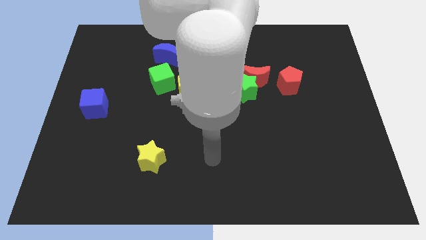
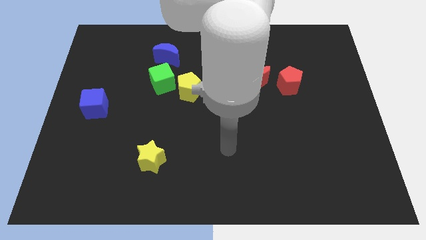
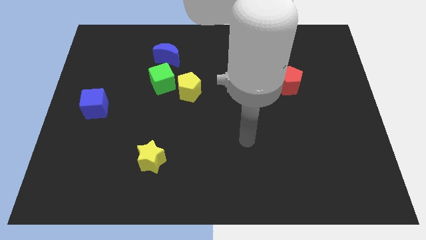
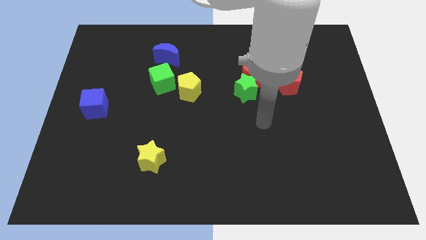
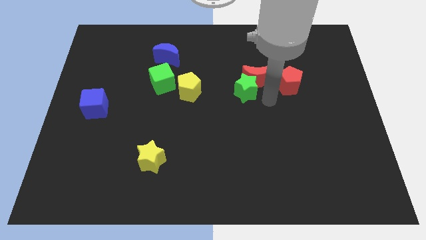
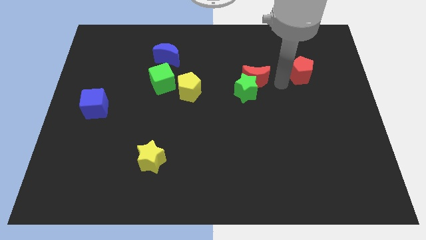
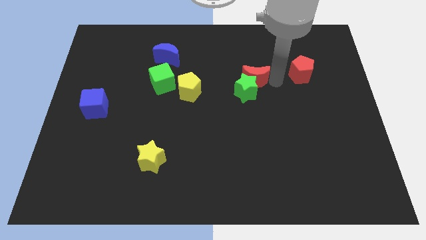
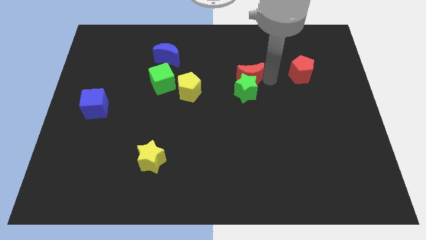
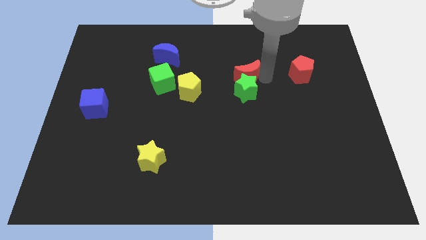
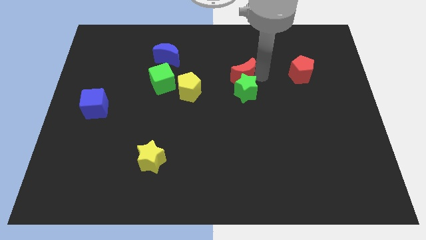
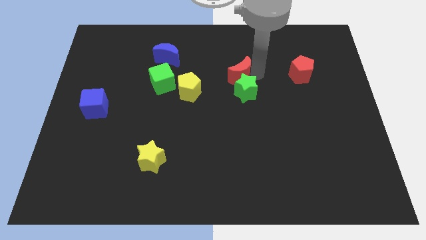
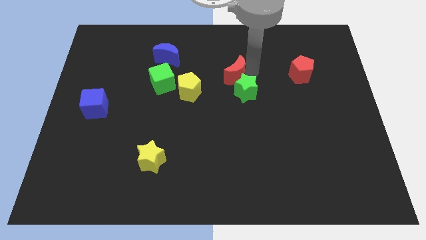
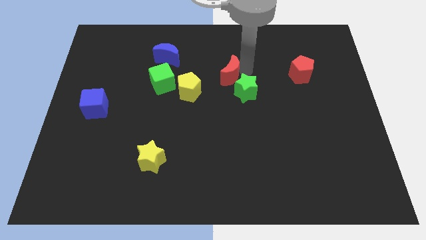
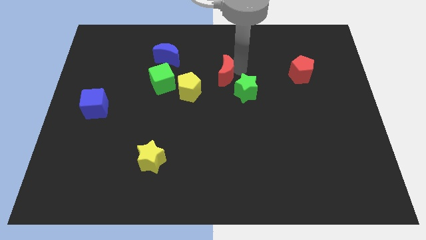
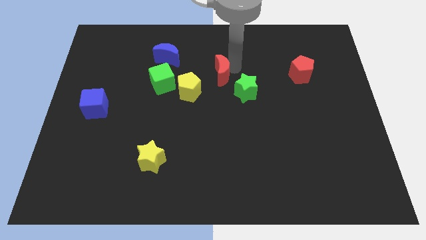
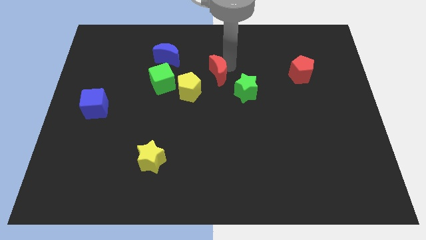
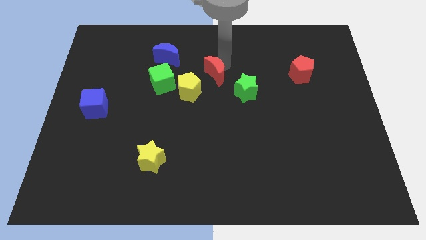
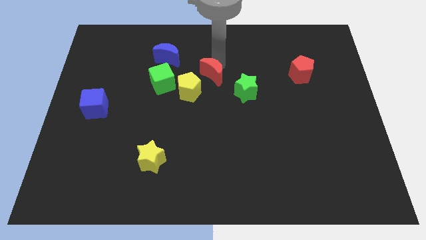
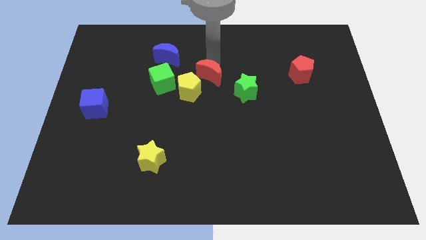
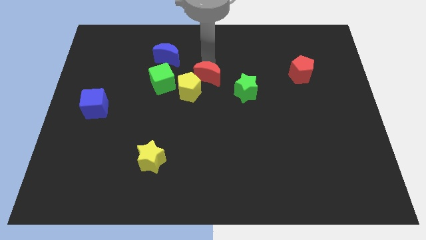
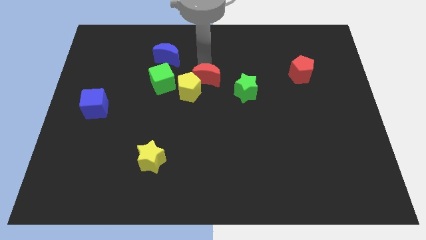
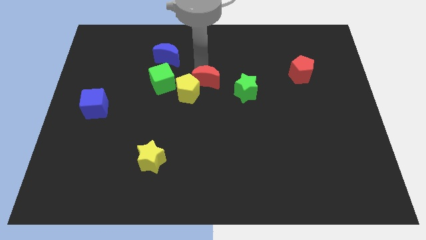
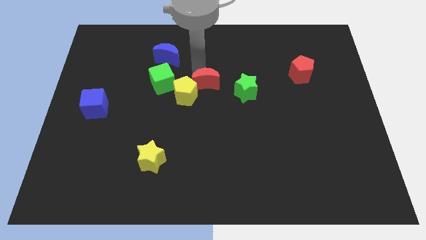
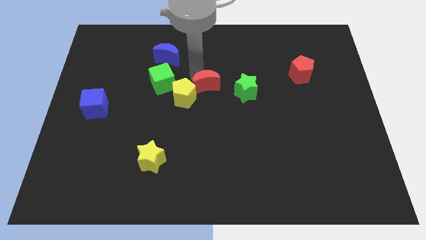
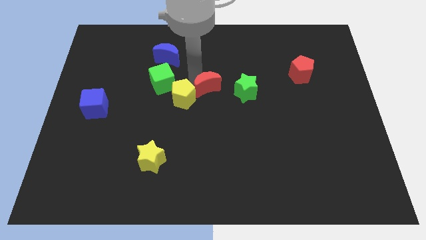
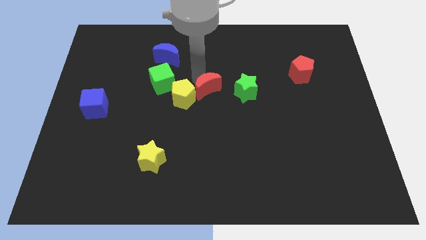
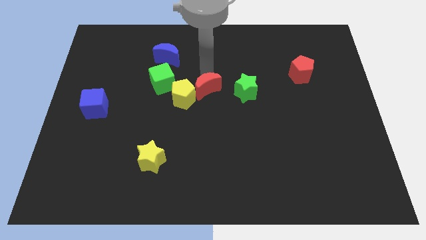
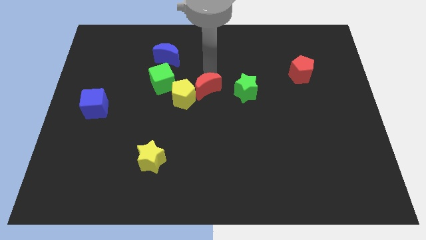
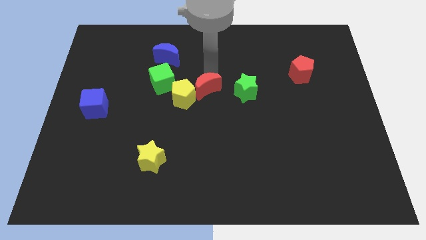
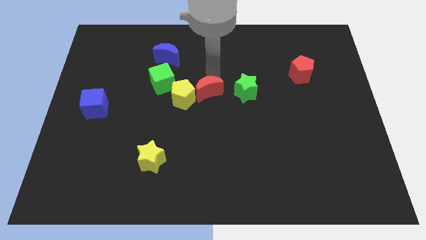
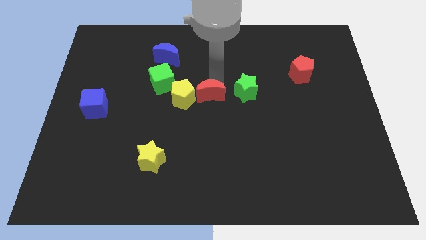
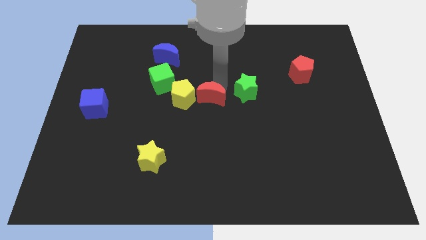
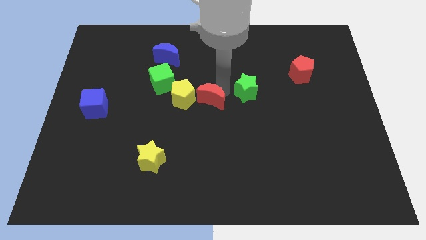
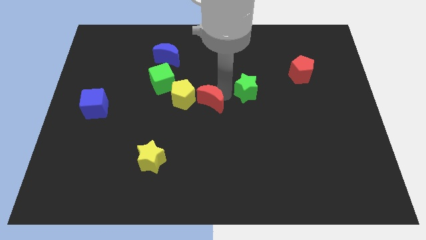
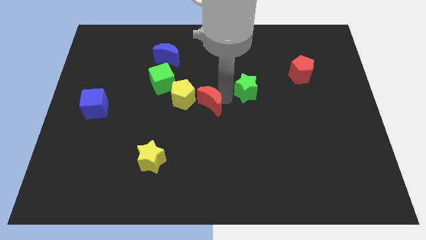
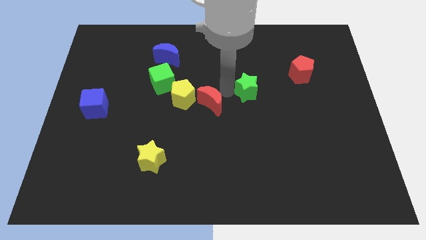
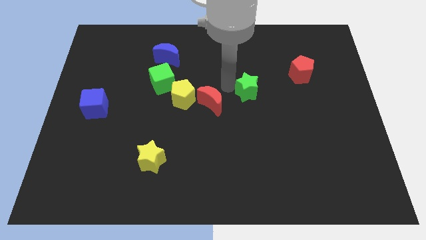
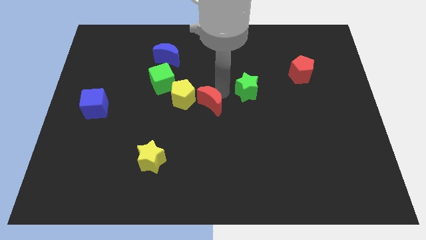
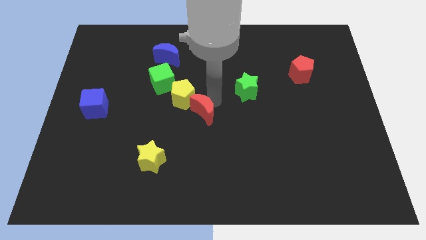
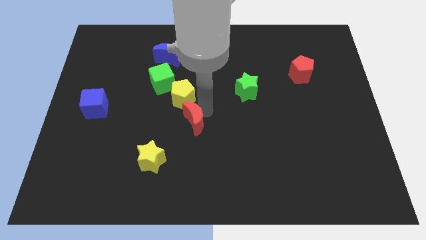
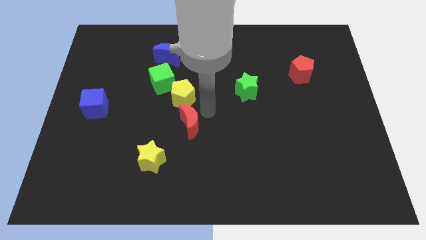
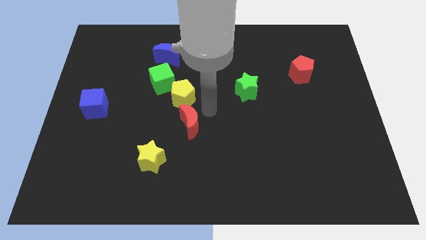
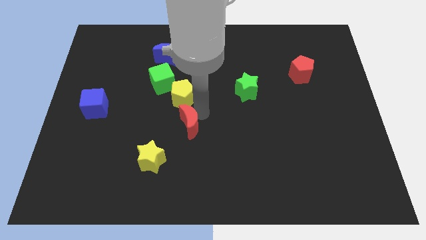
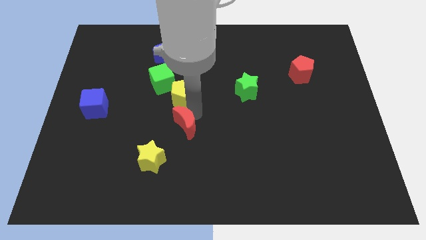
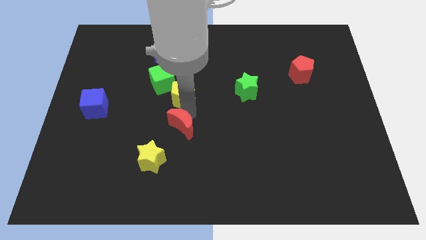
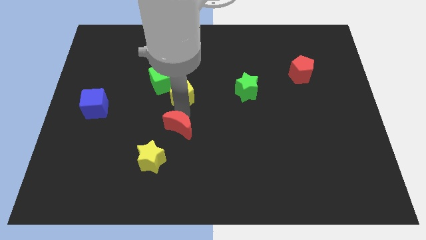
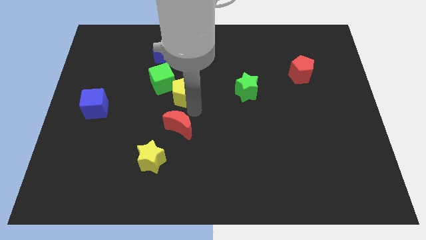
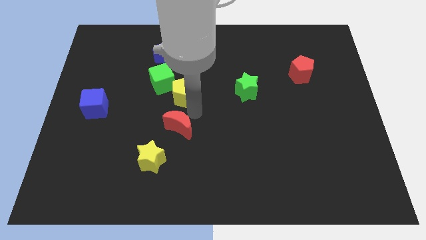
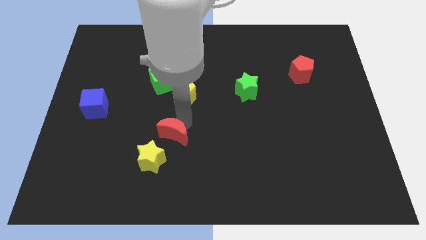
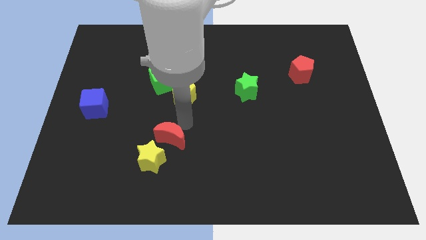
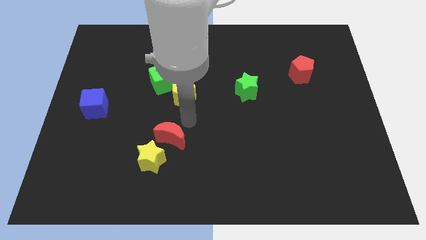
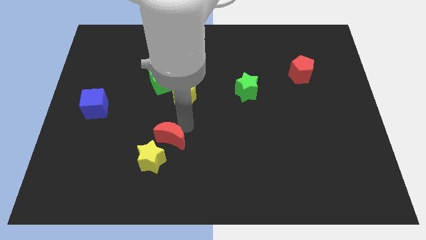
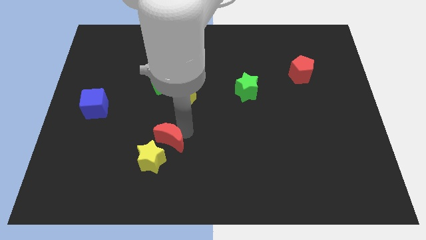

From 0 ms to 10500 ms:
push the red moon towards the yellow star

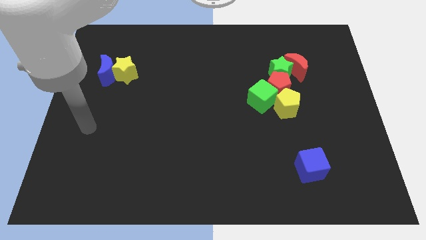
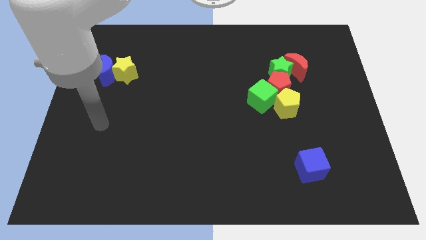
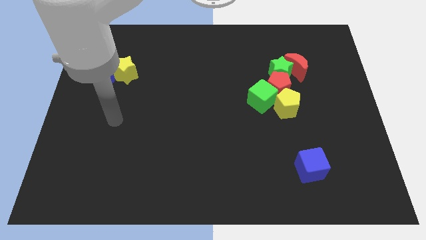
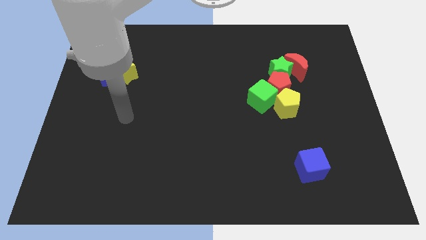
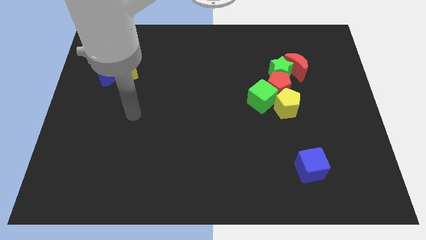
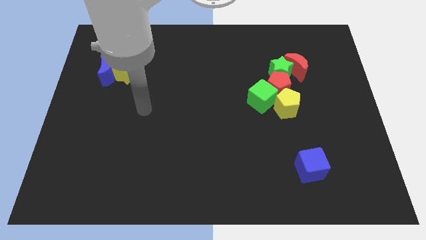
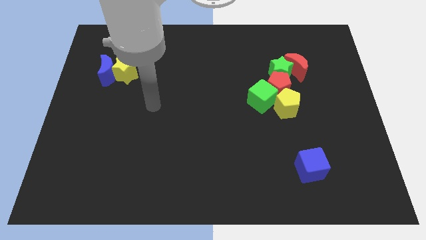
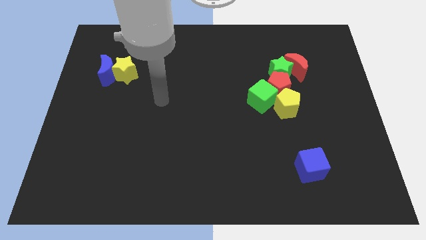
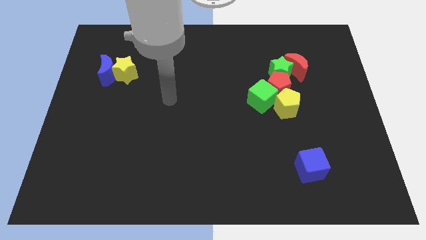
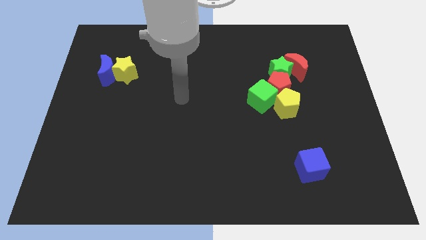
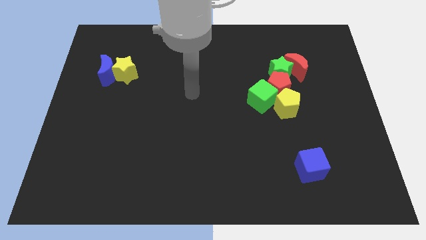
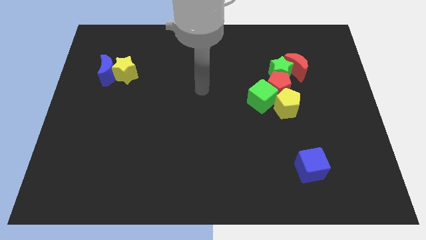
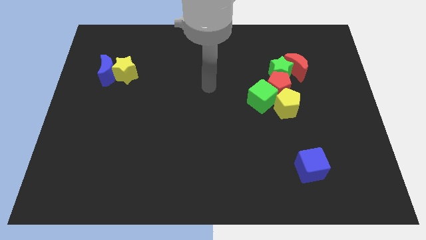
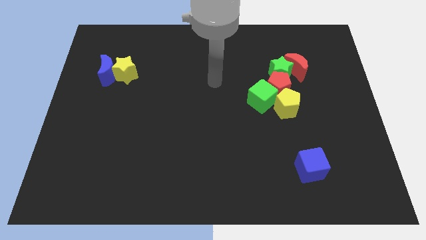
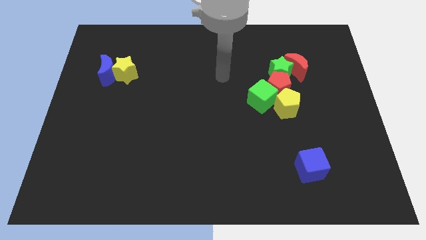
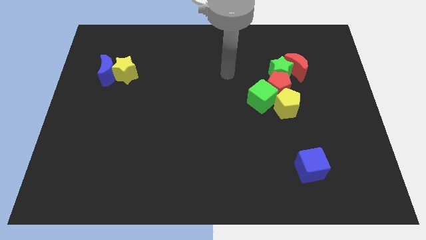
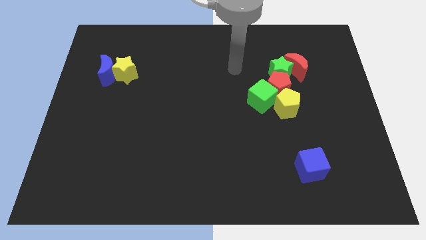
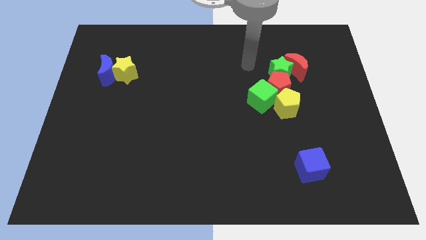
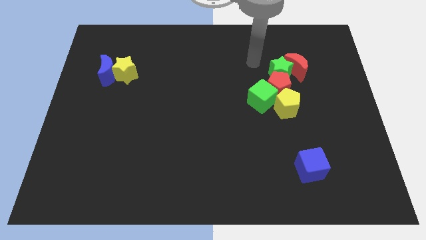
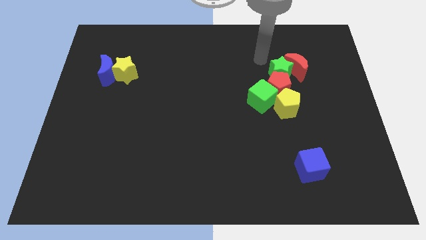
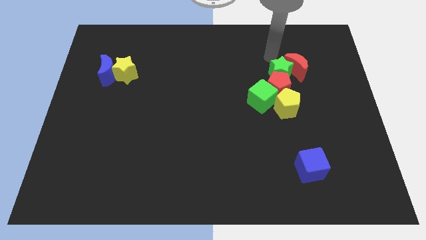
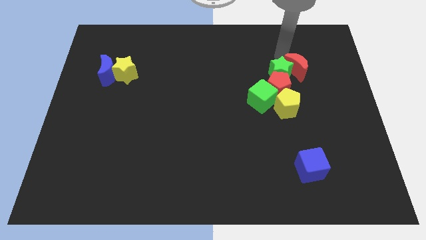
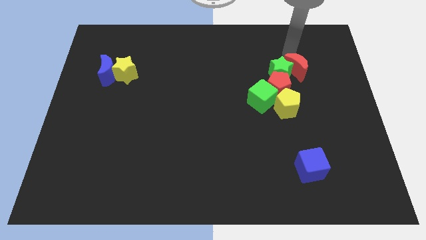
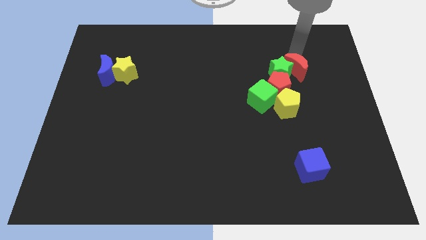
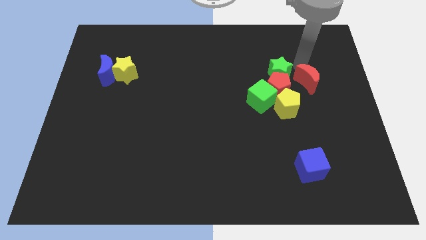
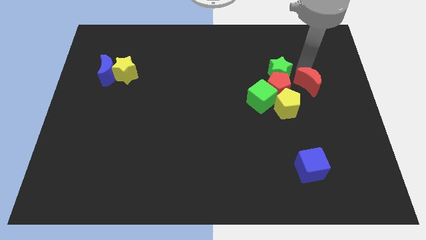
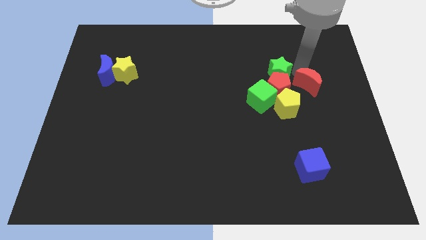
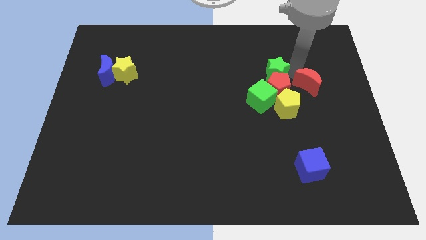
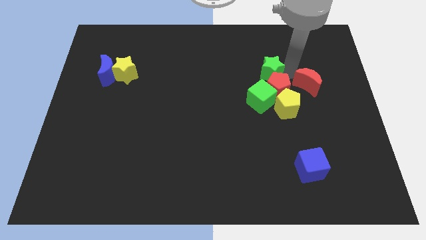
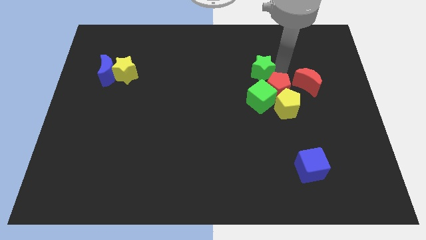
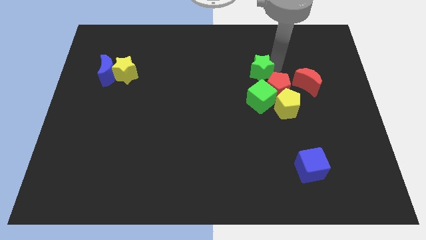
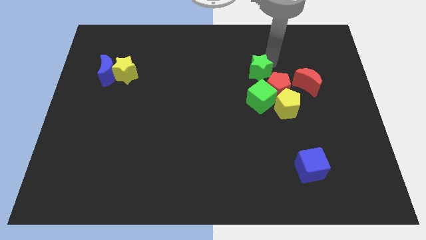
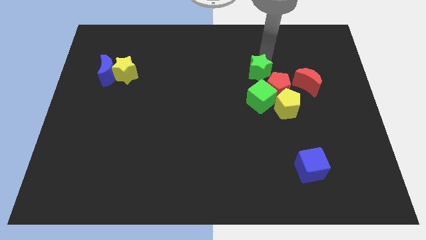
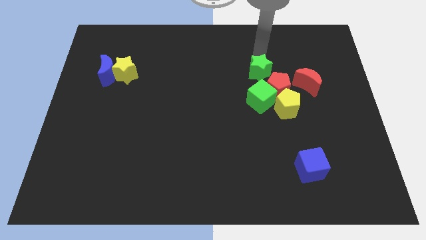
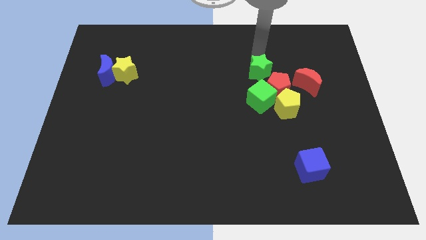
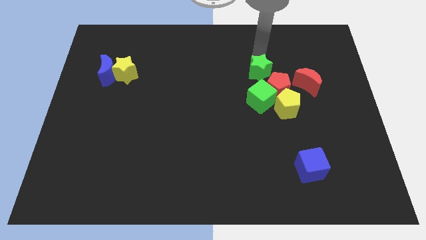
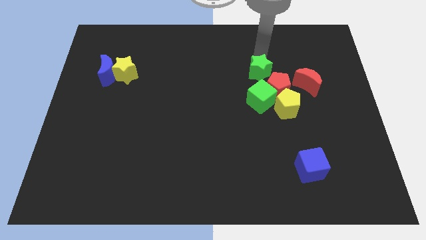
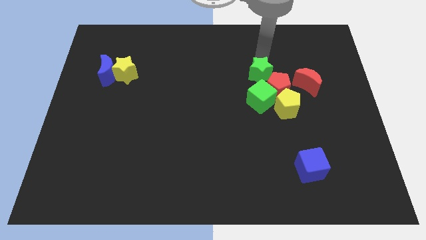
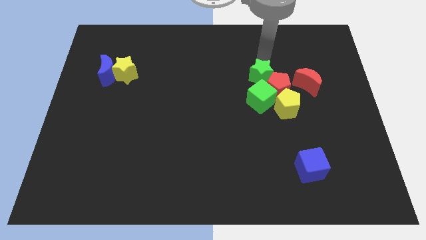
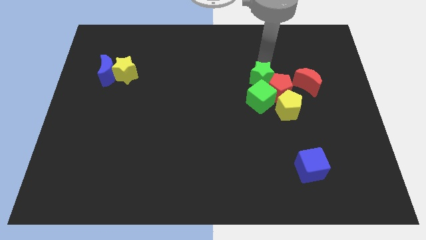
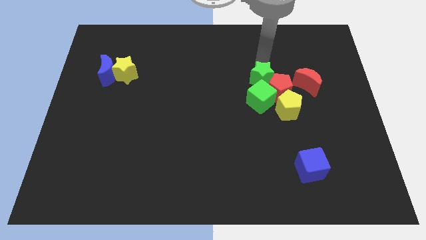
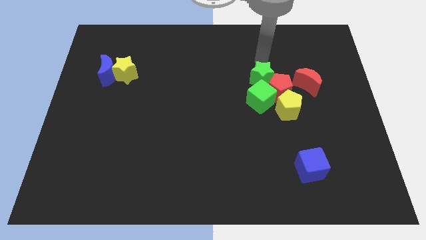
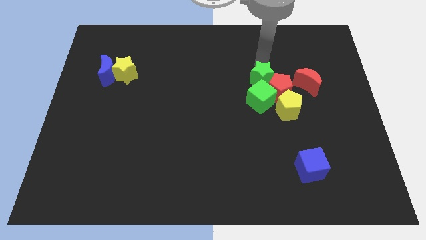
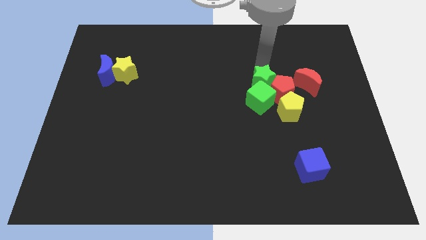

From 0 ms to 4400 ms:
slide the green star close to the green cube
